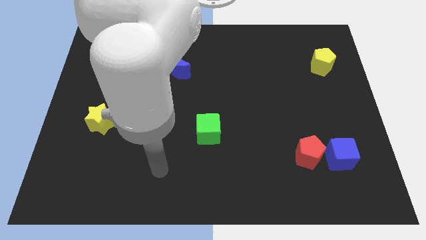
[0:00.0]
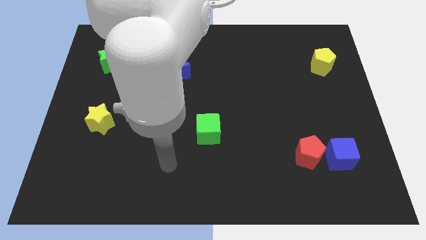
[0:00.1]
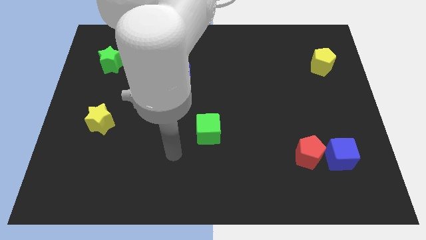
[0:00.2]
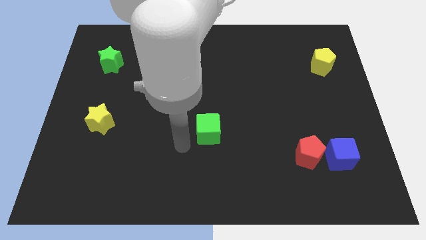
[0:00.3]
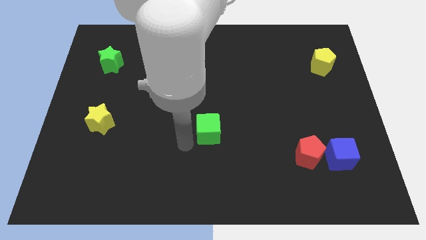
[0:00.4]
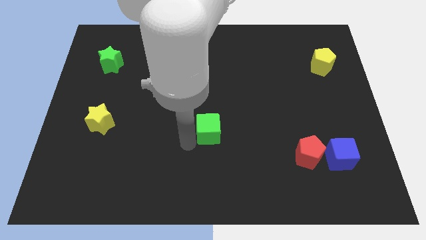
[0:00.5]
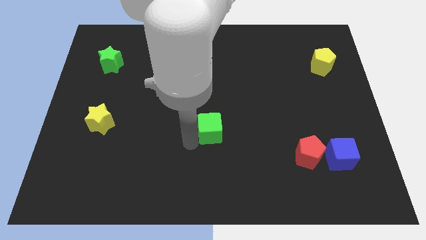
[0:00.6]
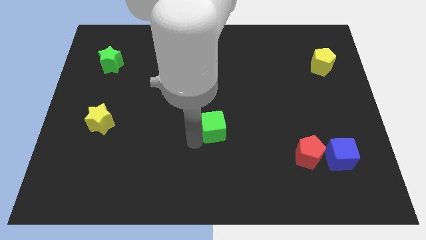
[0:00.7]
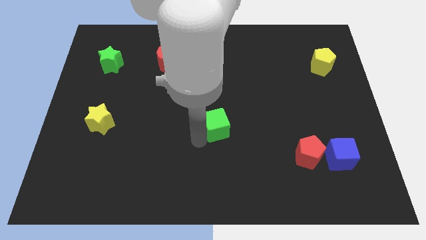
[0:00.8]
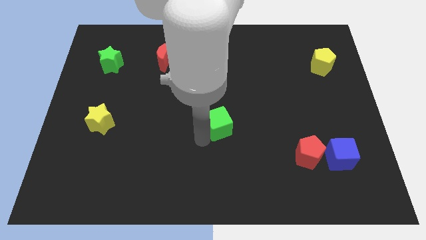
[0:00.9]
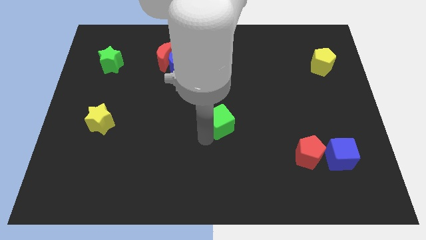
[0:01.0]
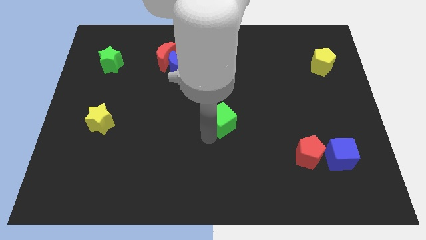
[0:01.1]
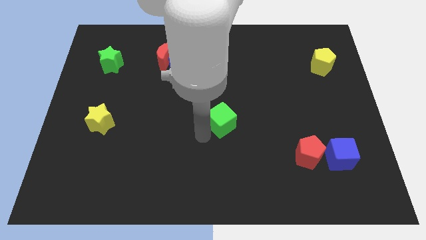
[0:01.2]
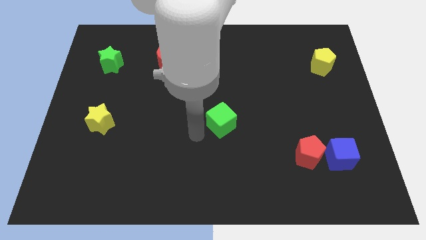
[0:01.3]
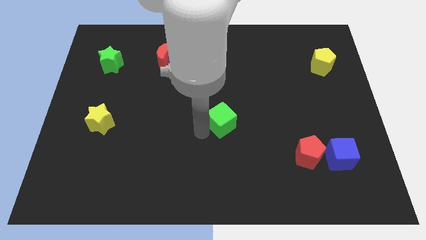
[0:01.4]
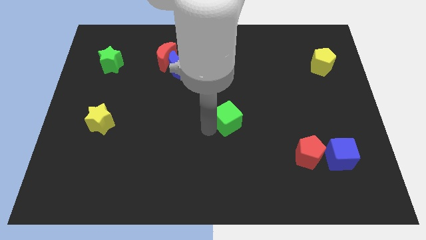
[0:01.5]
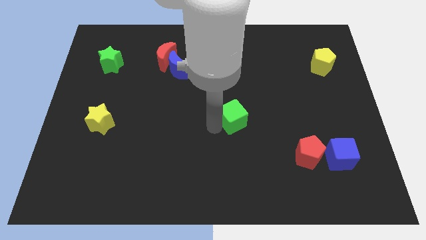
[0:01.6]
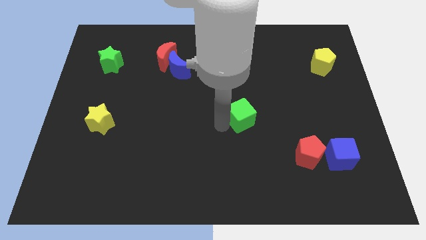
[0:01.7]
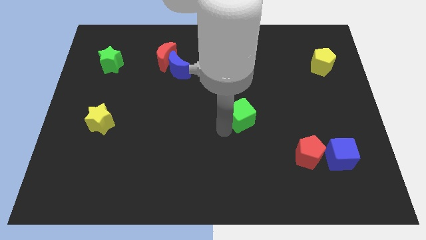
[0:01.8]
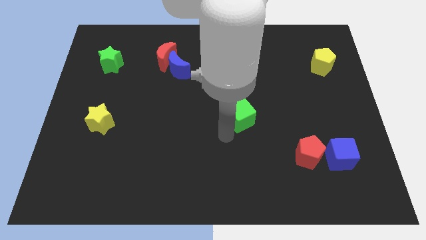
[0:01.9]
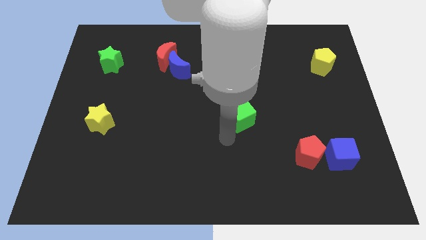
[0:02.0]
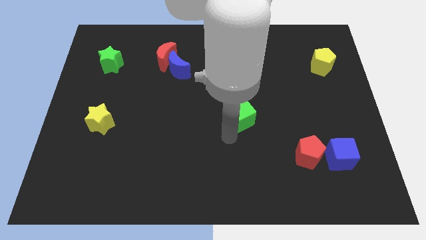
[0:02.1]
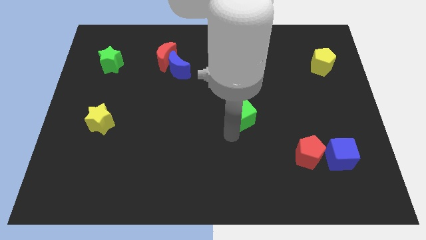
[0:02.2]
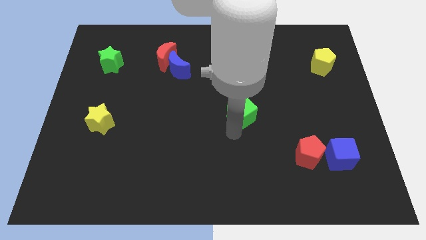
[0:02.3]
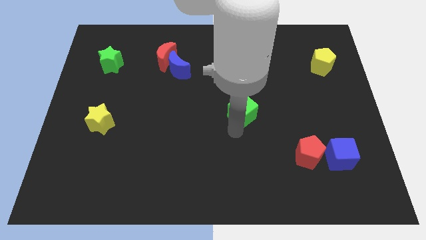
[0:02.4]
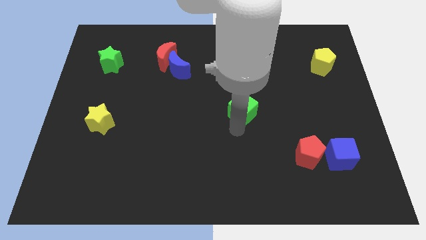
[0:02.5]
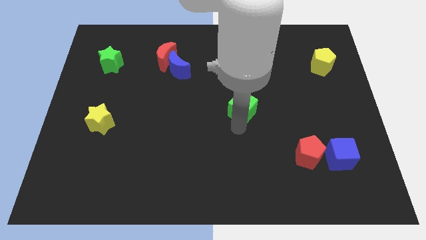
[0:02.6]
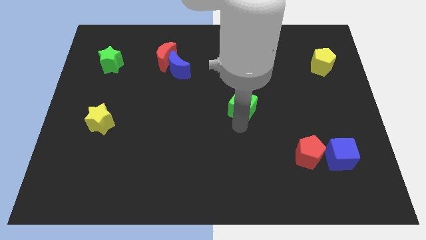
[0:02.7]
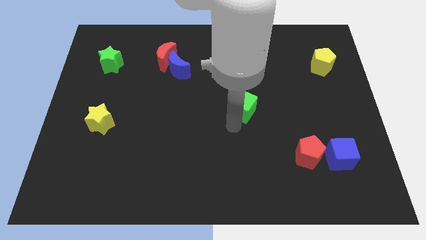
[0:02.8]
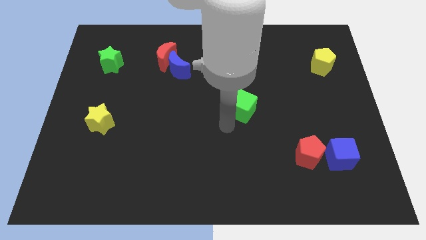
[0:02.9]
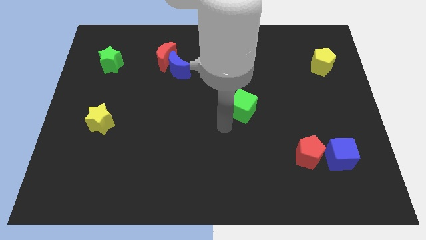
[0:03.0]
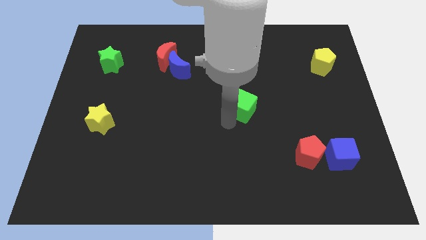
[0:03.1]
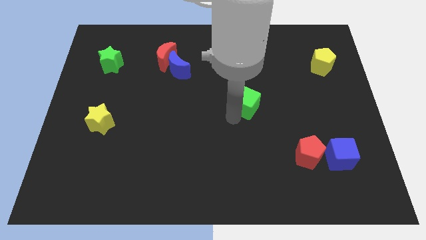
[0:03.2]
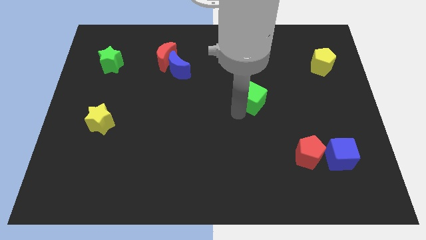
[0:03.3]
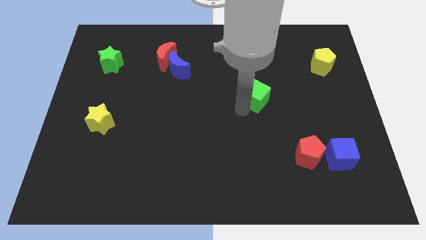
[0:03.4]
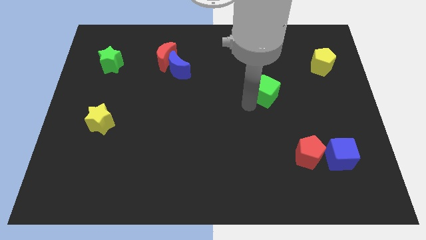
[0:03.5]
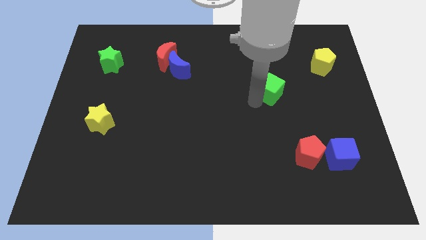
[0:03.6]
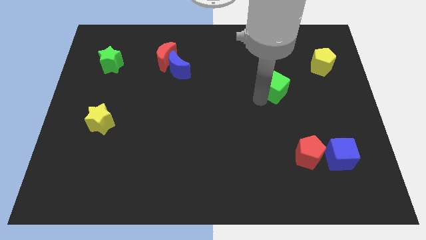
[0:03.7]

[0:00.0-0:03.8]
move the green cube upwards and to the right

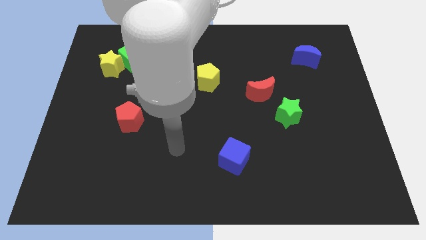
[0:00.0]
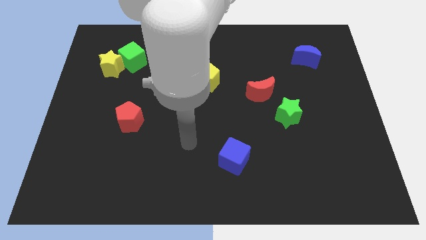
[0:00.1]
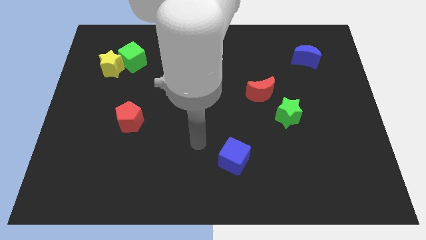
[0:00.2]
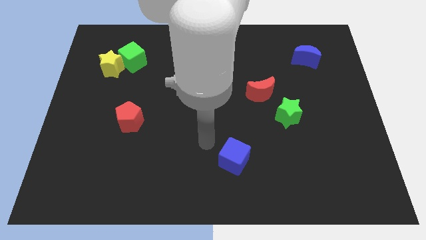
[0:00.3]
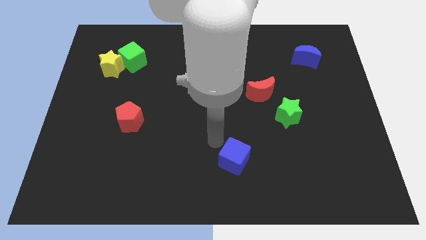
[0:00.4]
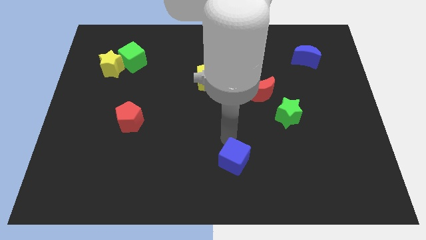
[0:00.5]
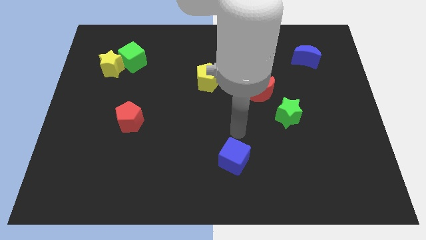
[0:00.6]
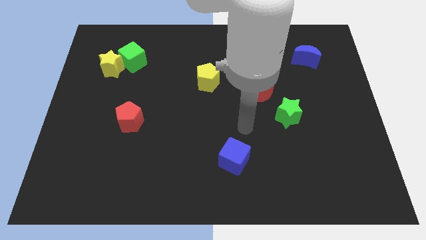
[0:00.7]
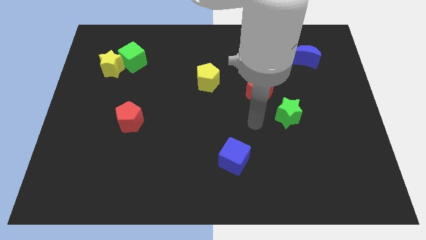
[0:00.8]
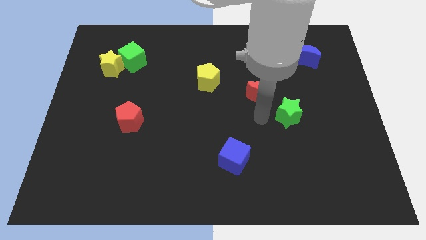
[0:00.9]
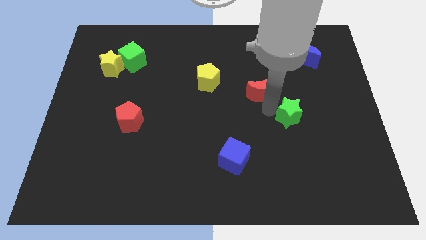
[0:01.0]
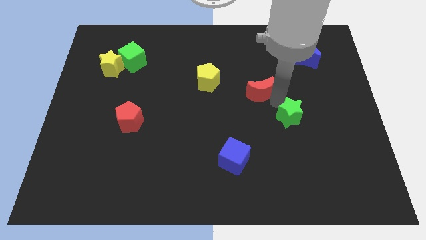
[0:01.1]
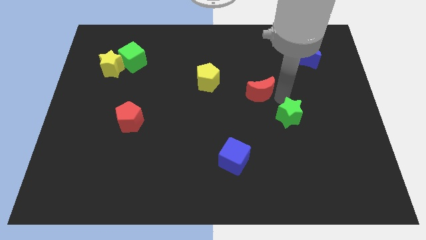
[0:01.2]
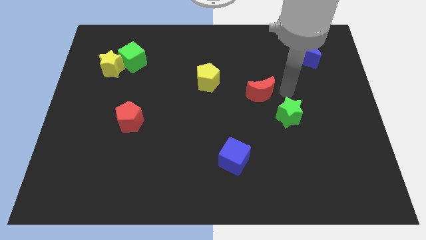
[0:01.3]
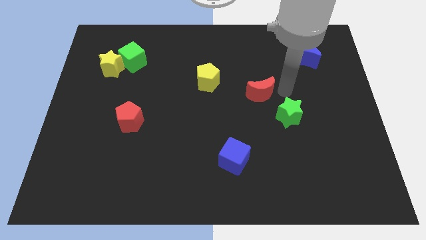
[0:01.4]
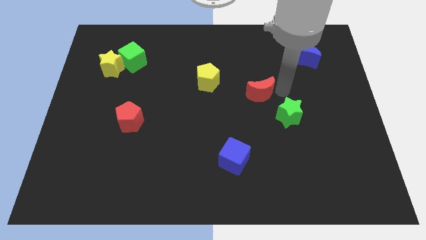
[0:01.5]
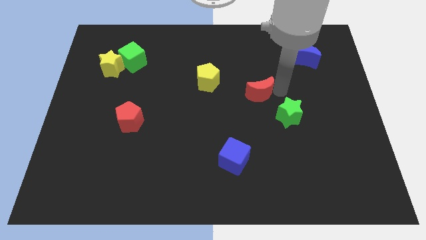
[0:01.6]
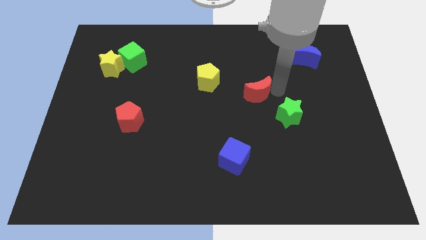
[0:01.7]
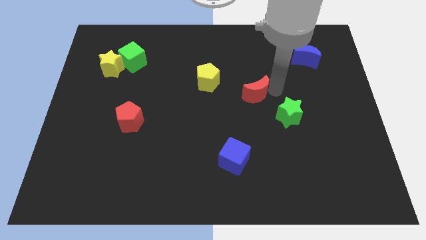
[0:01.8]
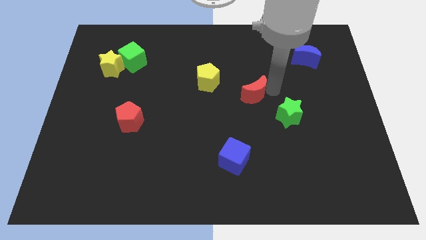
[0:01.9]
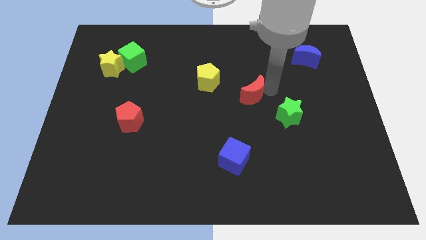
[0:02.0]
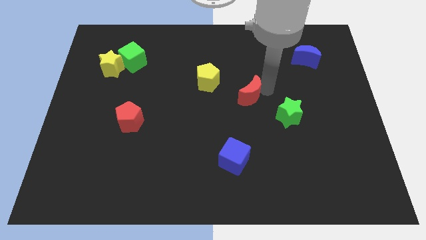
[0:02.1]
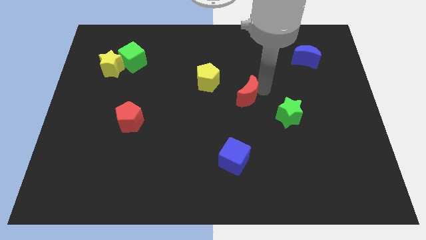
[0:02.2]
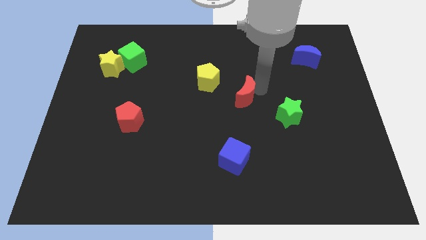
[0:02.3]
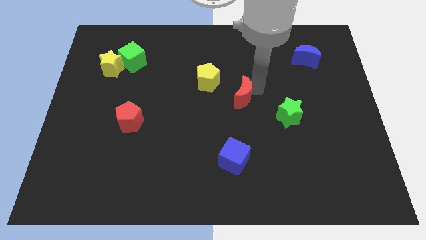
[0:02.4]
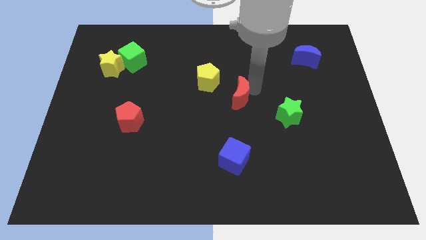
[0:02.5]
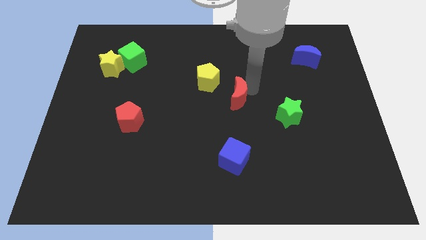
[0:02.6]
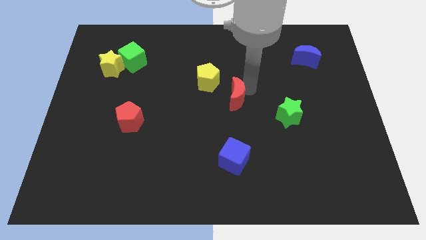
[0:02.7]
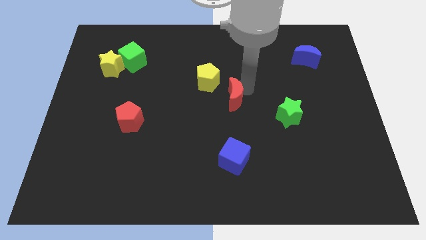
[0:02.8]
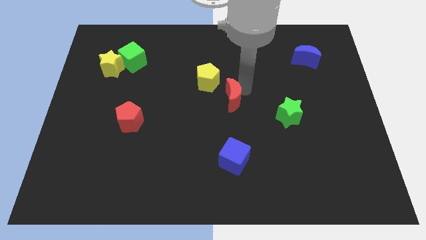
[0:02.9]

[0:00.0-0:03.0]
slide the red moon left a little bit

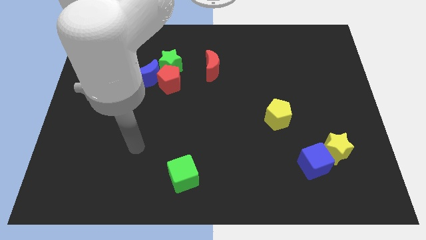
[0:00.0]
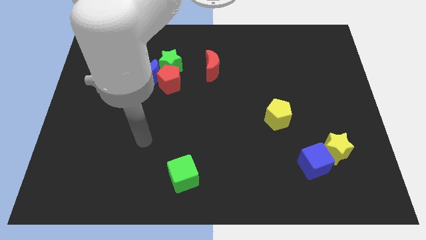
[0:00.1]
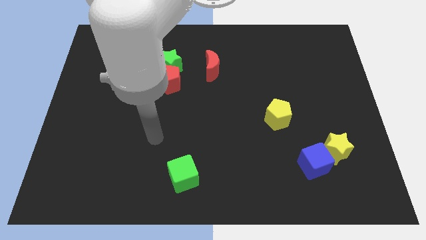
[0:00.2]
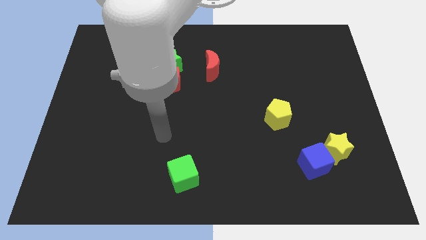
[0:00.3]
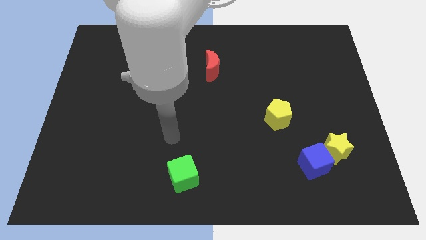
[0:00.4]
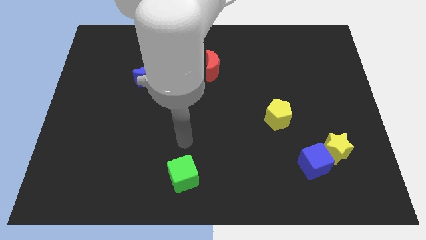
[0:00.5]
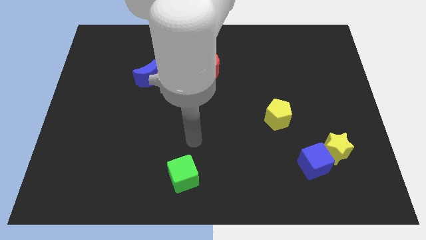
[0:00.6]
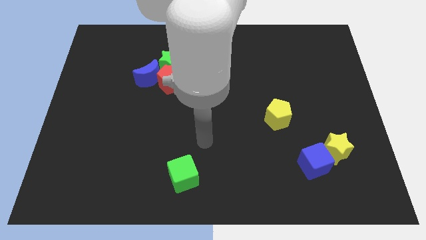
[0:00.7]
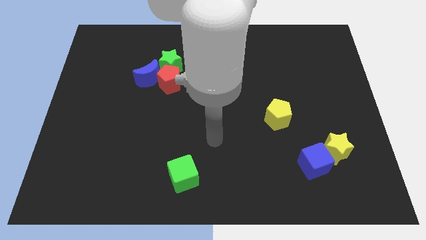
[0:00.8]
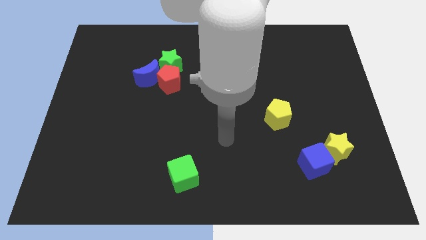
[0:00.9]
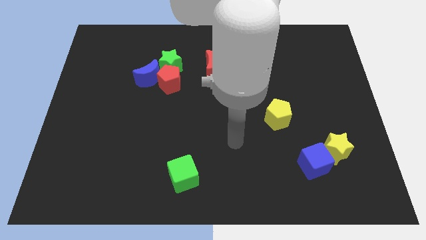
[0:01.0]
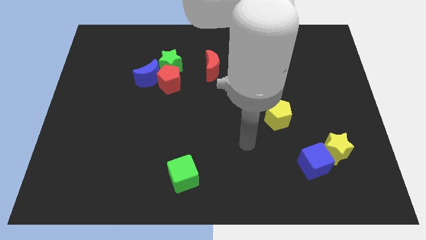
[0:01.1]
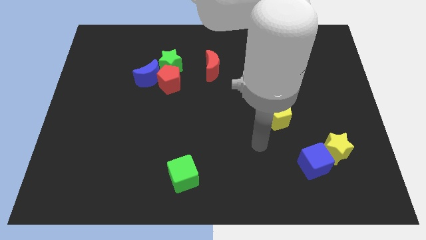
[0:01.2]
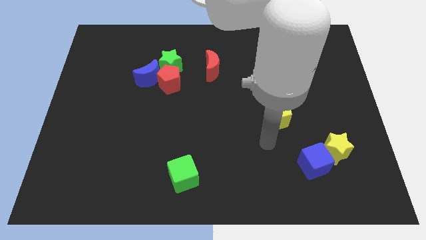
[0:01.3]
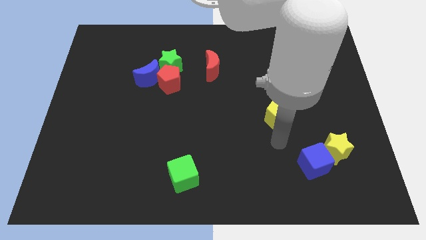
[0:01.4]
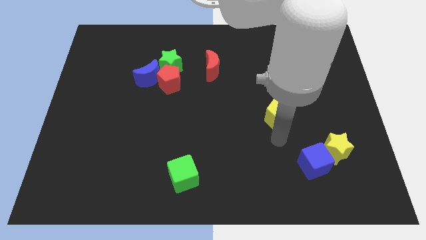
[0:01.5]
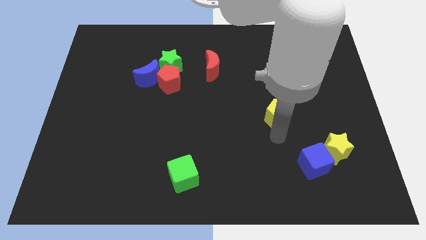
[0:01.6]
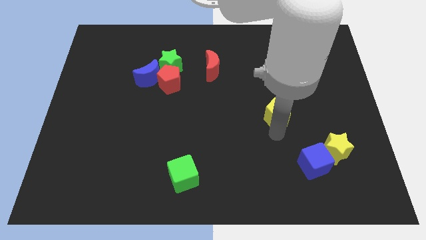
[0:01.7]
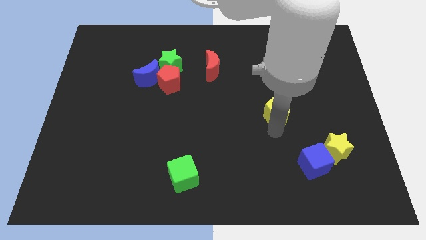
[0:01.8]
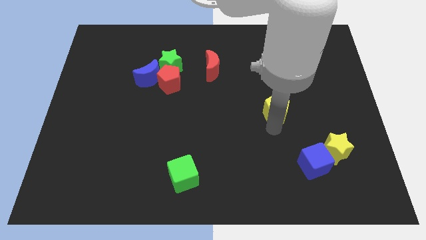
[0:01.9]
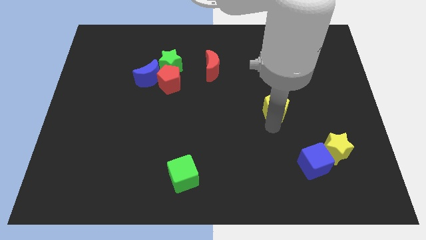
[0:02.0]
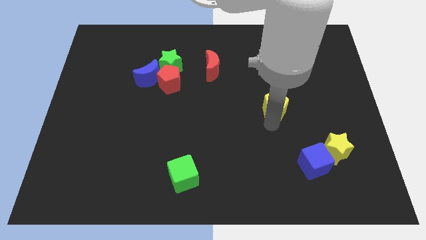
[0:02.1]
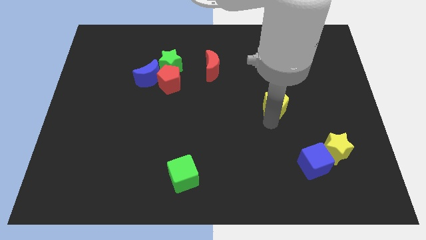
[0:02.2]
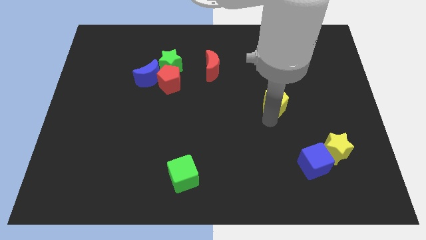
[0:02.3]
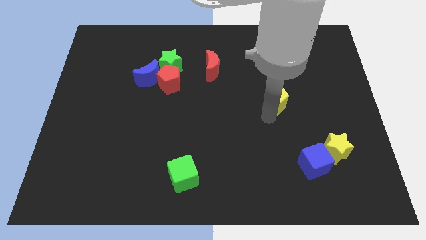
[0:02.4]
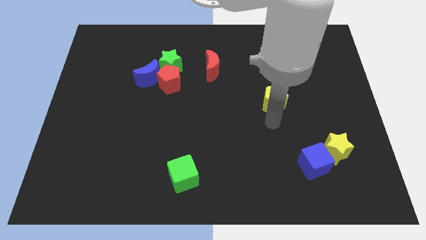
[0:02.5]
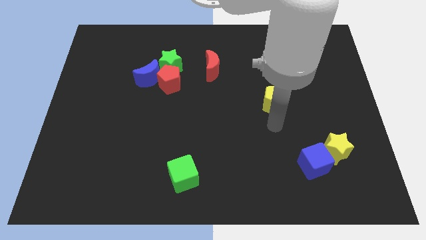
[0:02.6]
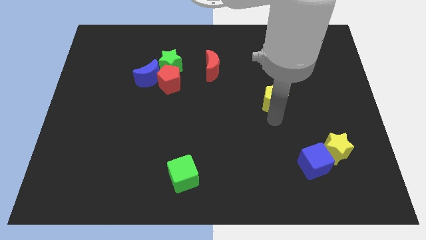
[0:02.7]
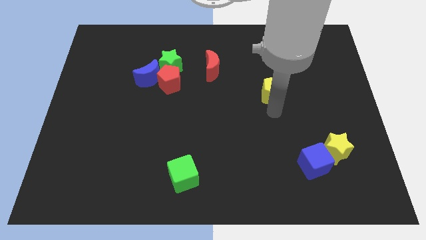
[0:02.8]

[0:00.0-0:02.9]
push the yellow pentagon up slightly
